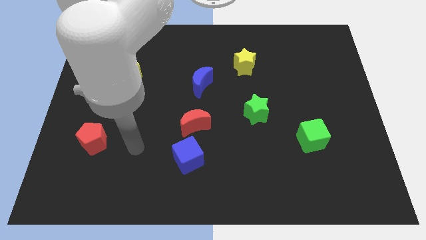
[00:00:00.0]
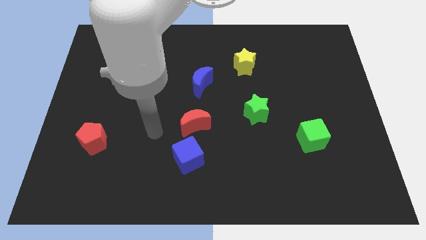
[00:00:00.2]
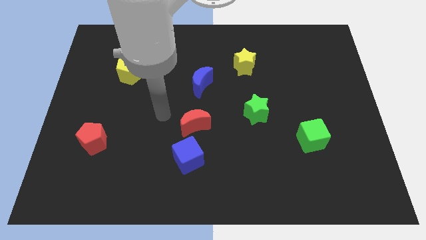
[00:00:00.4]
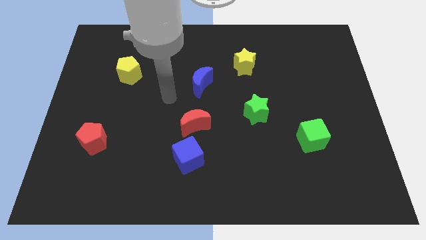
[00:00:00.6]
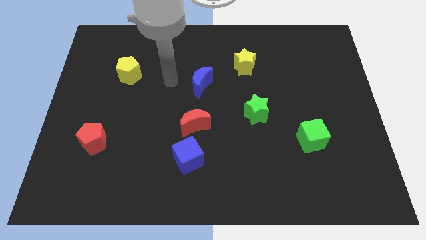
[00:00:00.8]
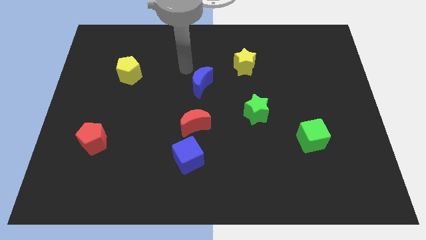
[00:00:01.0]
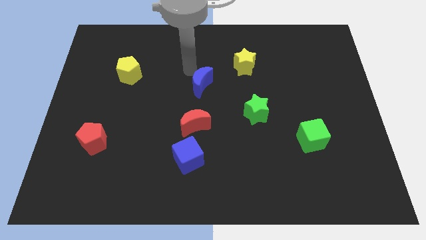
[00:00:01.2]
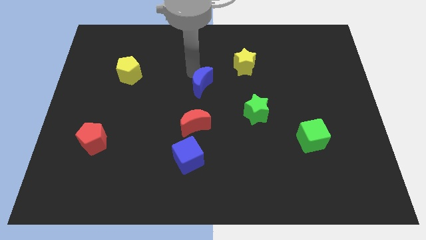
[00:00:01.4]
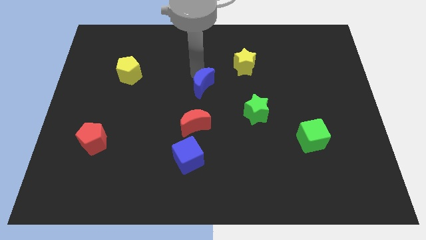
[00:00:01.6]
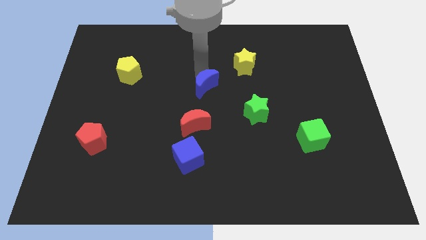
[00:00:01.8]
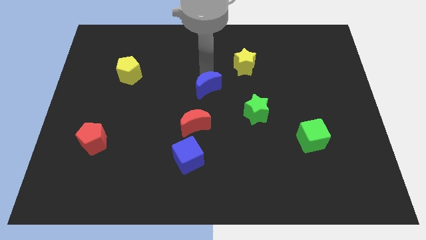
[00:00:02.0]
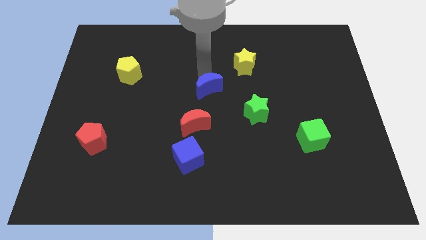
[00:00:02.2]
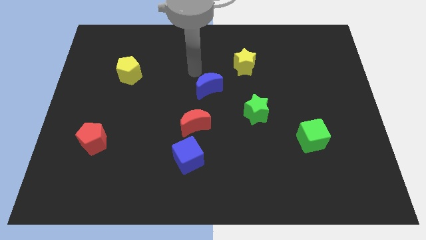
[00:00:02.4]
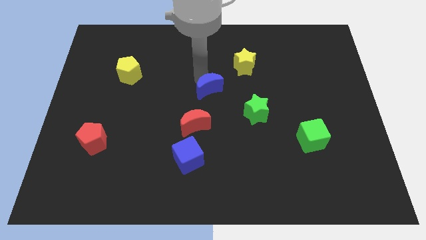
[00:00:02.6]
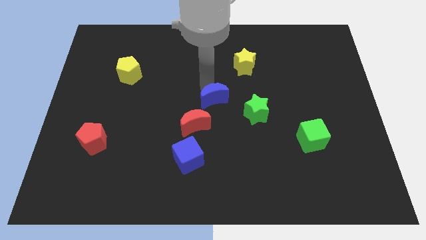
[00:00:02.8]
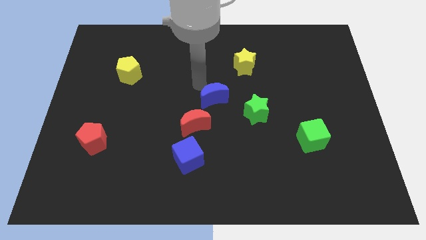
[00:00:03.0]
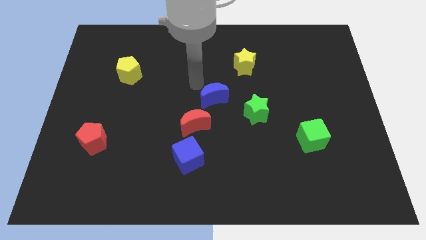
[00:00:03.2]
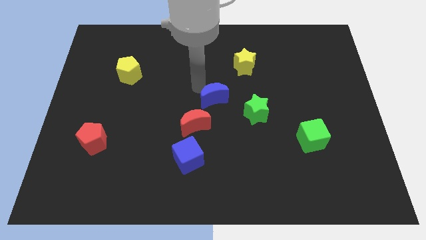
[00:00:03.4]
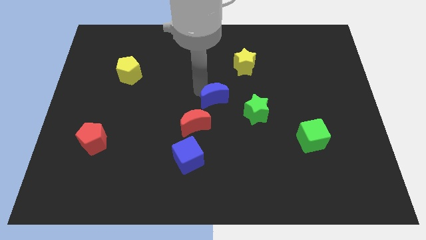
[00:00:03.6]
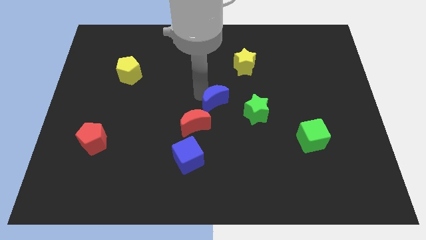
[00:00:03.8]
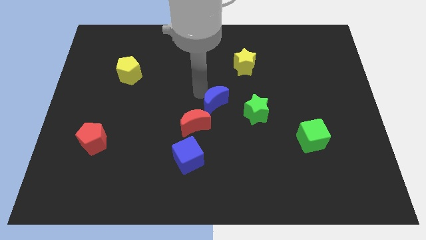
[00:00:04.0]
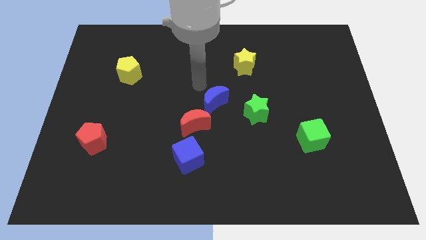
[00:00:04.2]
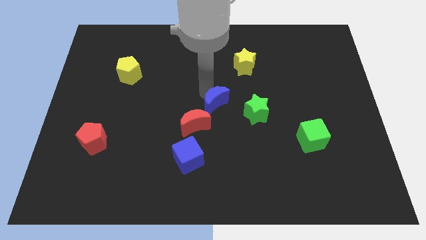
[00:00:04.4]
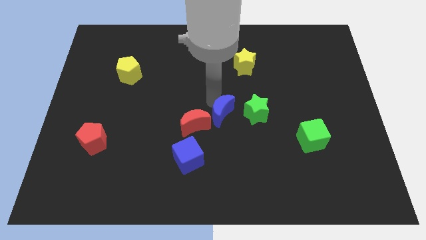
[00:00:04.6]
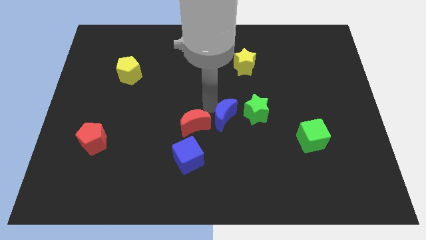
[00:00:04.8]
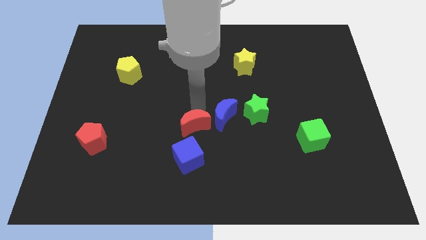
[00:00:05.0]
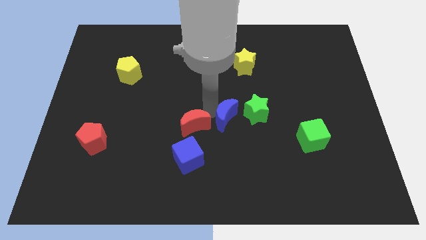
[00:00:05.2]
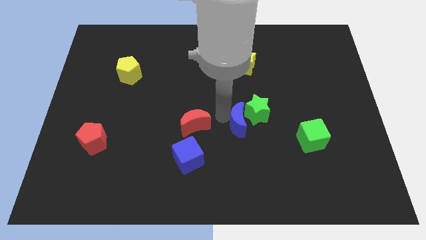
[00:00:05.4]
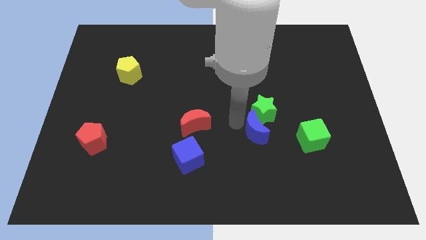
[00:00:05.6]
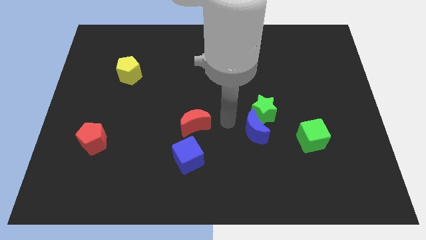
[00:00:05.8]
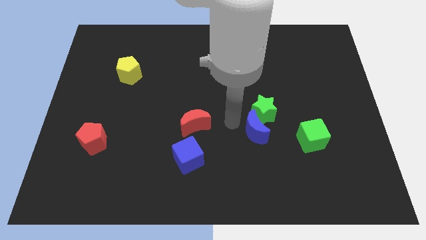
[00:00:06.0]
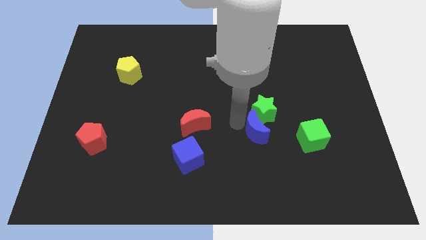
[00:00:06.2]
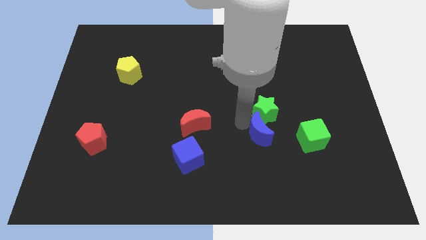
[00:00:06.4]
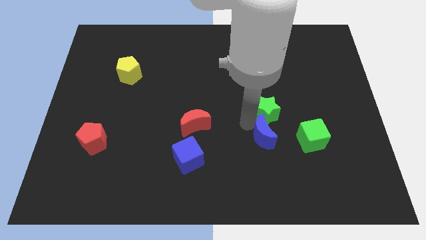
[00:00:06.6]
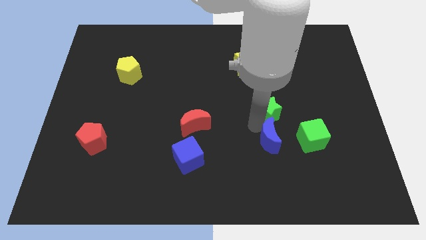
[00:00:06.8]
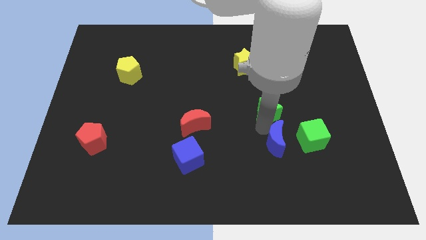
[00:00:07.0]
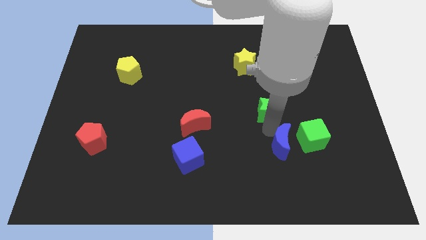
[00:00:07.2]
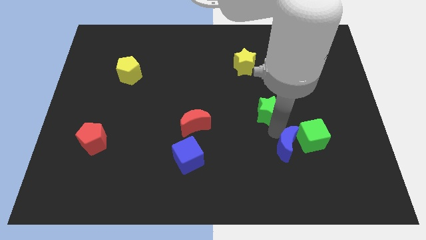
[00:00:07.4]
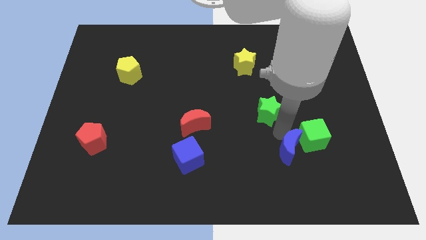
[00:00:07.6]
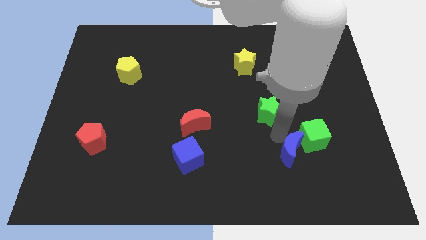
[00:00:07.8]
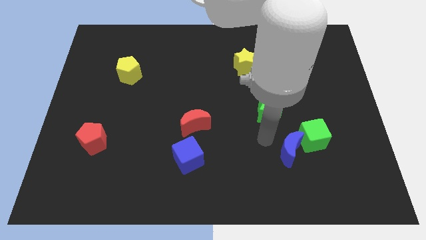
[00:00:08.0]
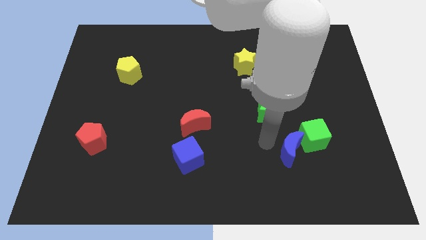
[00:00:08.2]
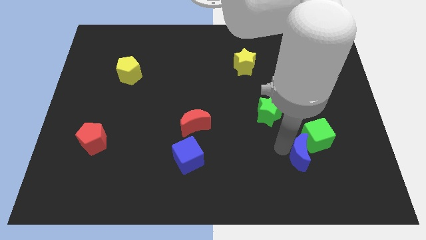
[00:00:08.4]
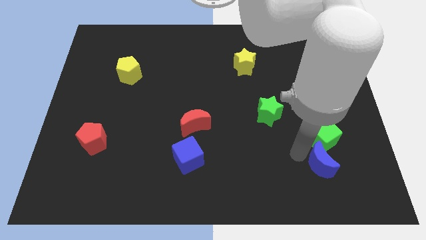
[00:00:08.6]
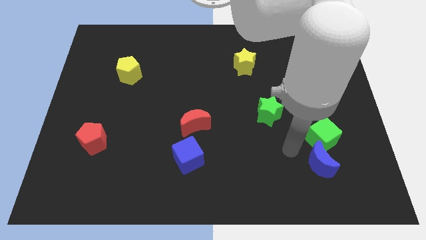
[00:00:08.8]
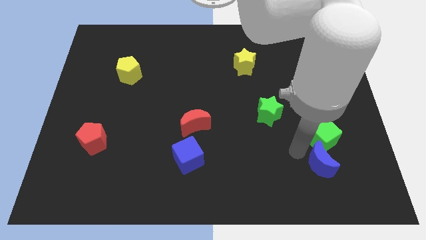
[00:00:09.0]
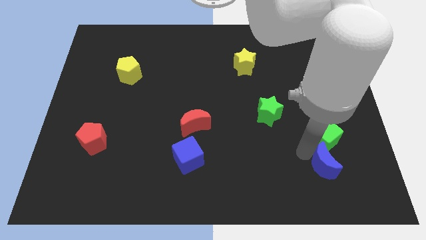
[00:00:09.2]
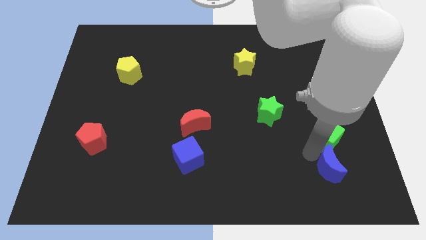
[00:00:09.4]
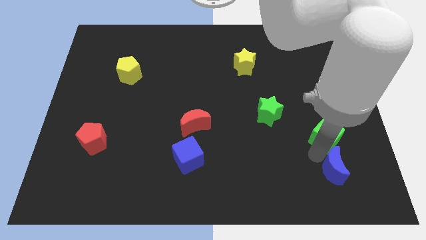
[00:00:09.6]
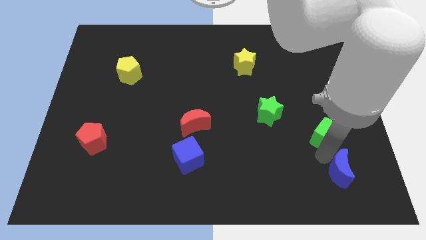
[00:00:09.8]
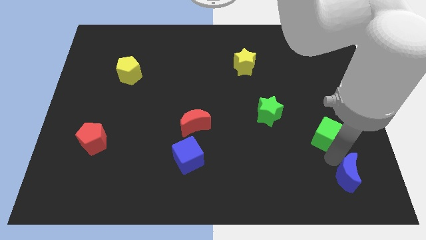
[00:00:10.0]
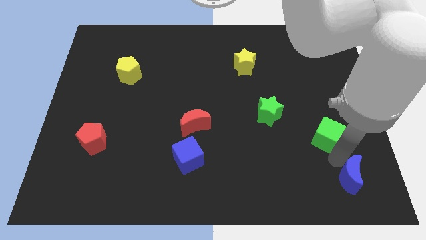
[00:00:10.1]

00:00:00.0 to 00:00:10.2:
push the blue moon to the bottom right of the board

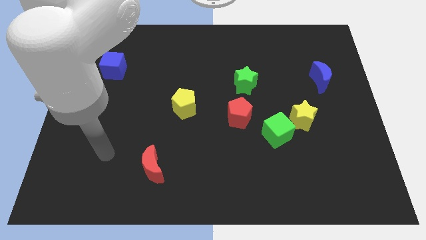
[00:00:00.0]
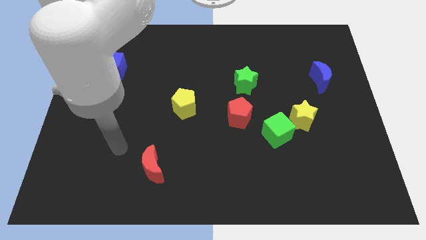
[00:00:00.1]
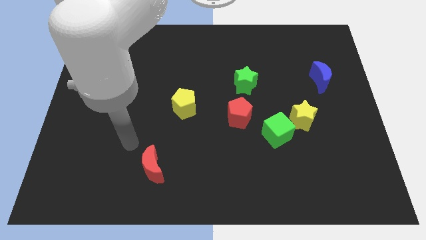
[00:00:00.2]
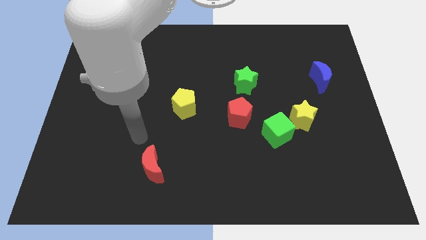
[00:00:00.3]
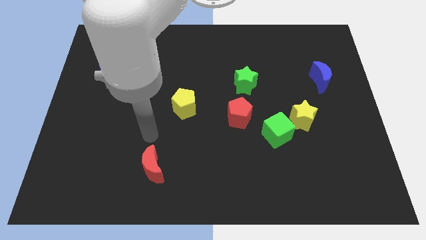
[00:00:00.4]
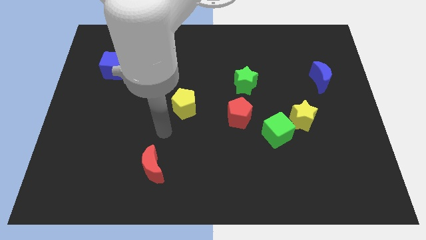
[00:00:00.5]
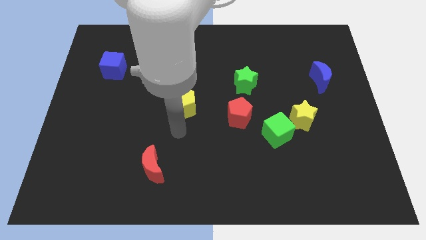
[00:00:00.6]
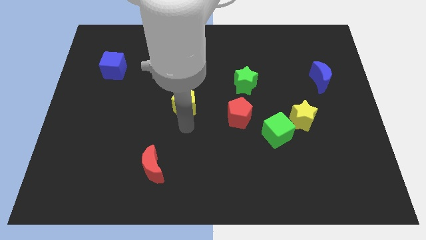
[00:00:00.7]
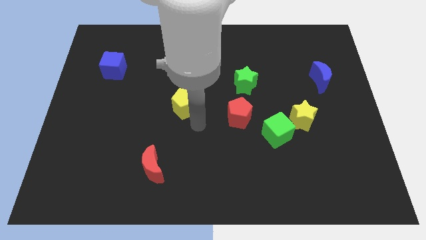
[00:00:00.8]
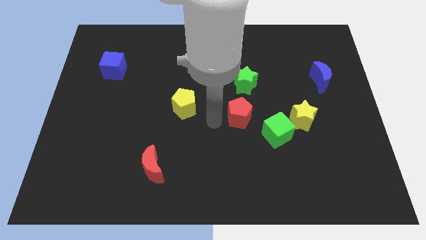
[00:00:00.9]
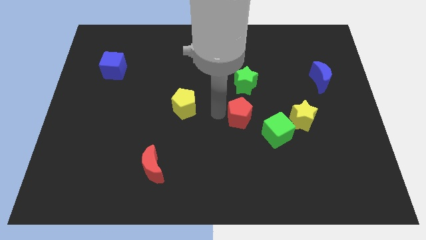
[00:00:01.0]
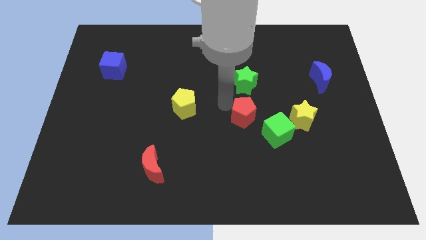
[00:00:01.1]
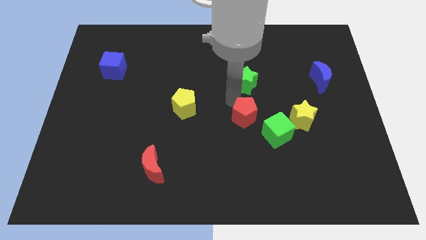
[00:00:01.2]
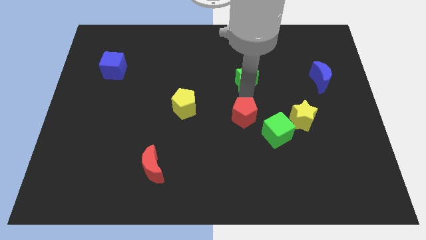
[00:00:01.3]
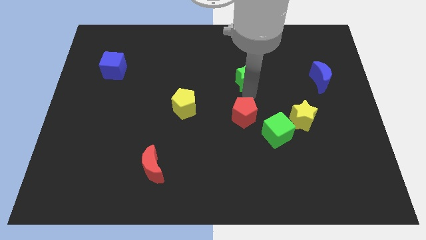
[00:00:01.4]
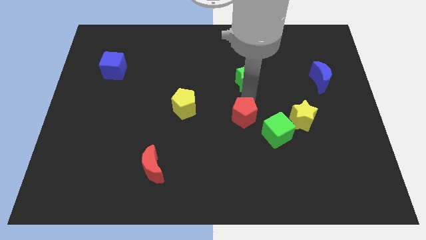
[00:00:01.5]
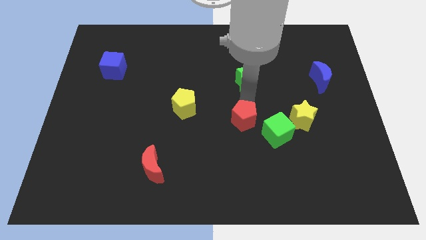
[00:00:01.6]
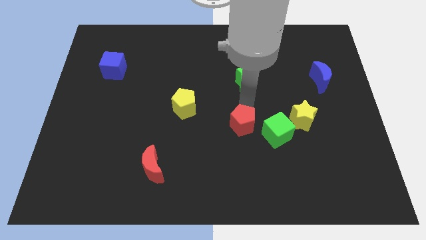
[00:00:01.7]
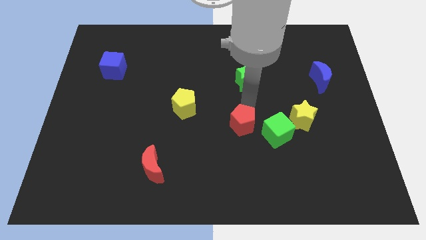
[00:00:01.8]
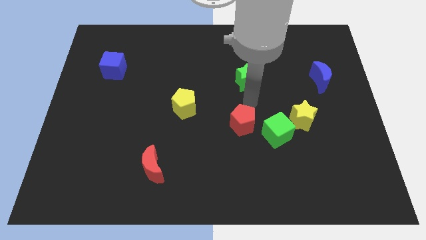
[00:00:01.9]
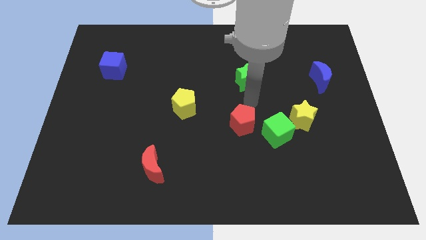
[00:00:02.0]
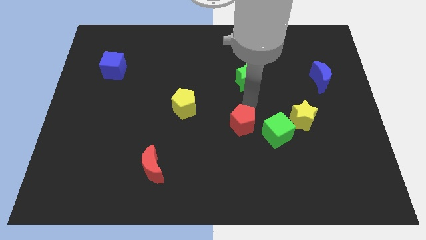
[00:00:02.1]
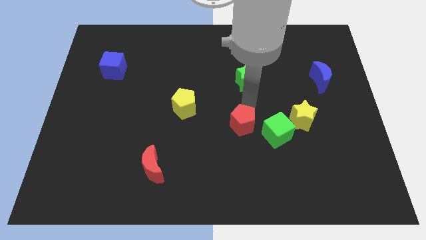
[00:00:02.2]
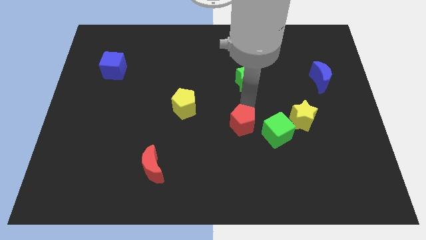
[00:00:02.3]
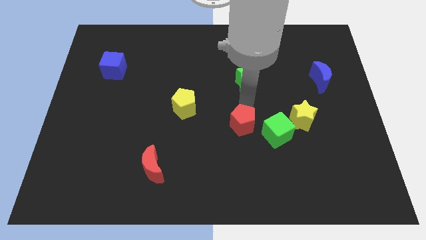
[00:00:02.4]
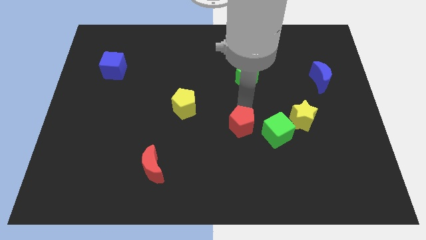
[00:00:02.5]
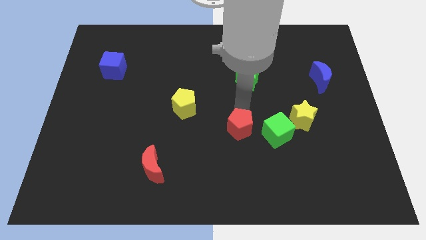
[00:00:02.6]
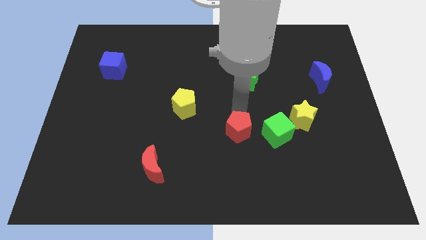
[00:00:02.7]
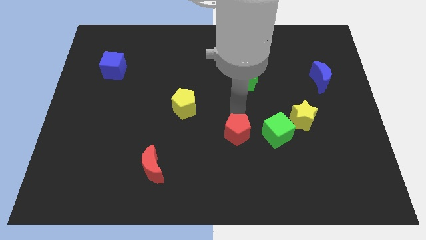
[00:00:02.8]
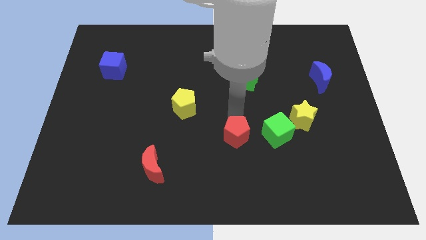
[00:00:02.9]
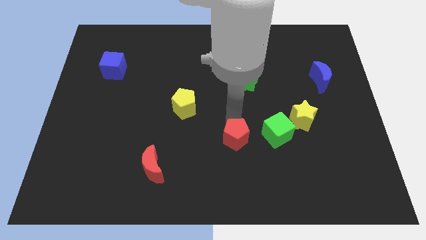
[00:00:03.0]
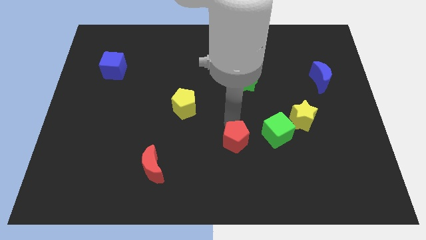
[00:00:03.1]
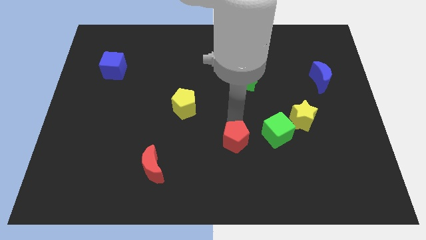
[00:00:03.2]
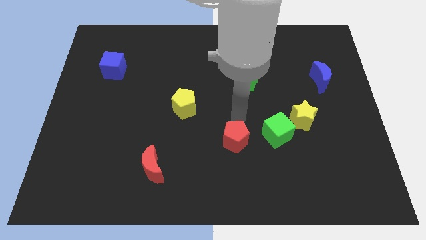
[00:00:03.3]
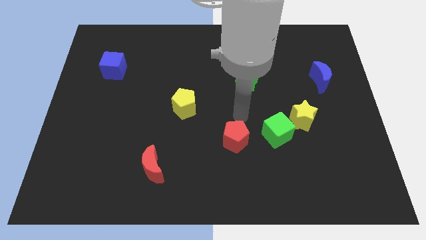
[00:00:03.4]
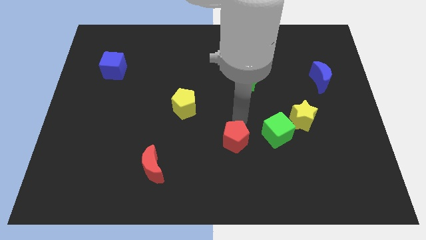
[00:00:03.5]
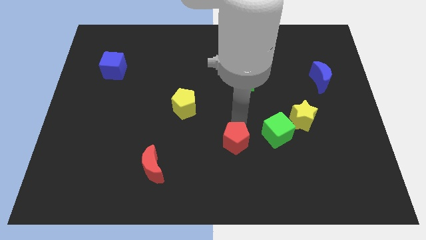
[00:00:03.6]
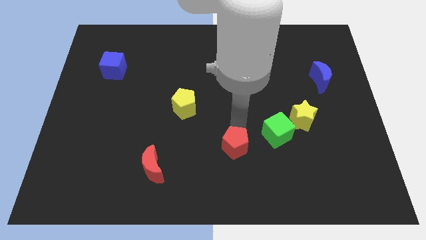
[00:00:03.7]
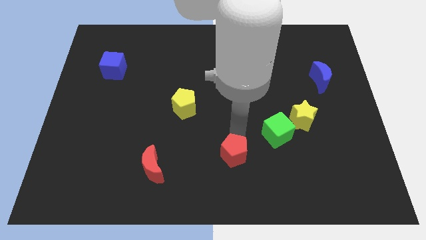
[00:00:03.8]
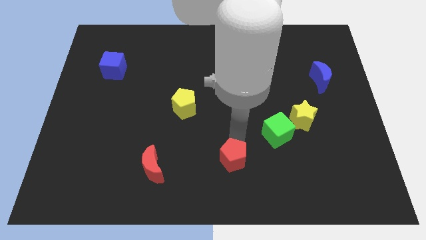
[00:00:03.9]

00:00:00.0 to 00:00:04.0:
slide the red pentagon to the bottom
